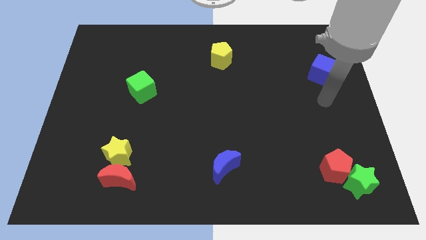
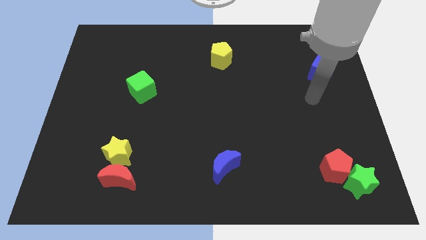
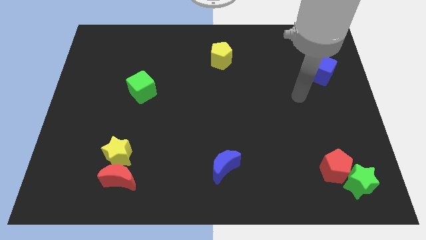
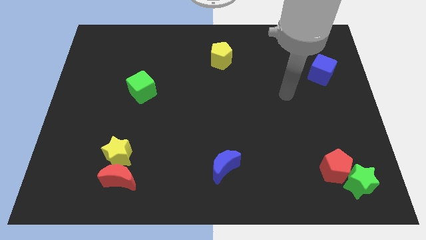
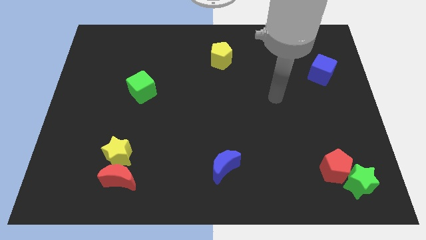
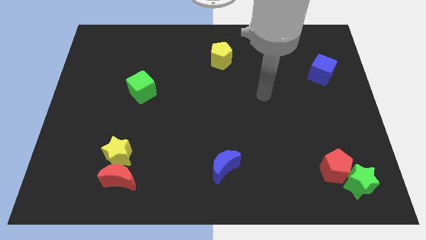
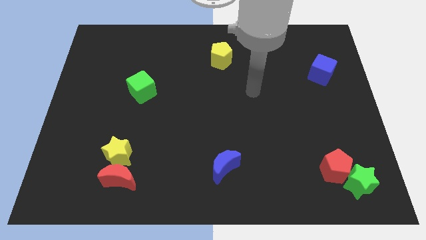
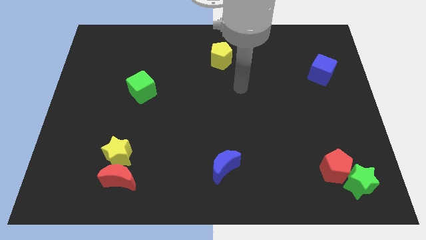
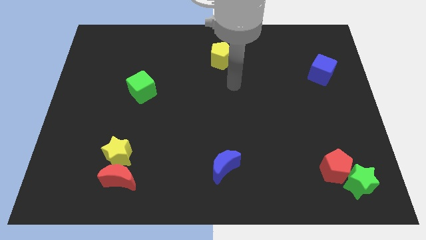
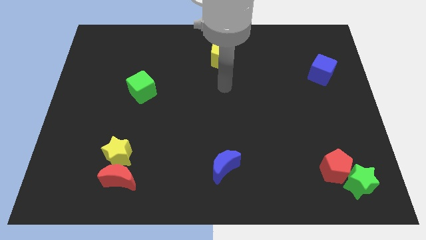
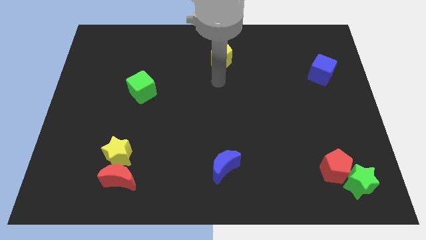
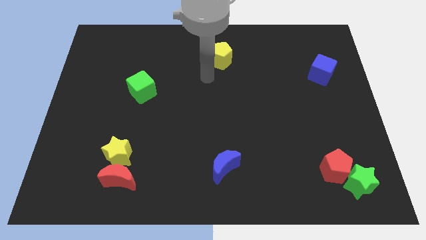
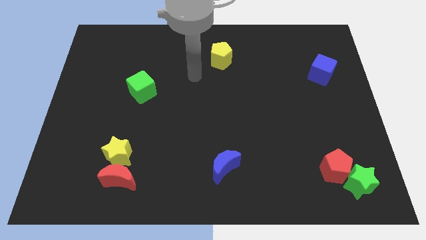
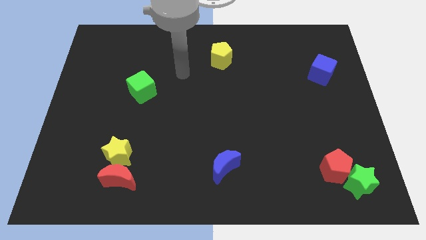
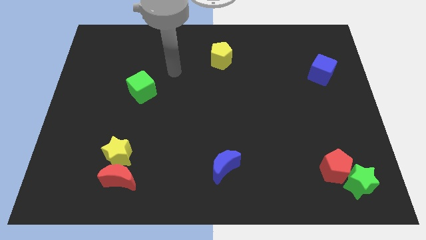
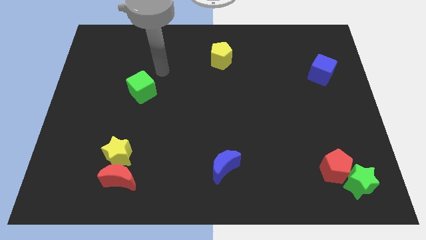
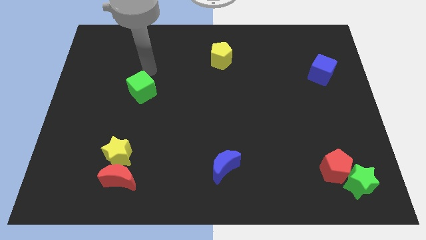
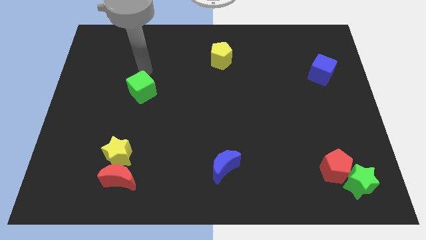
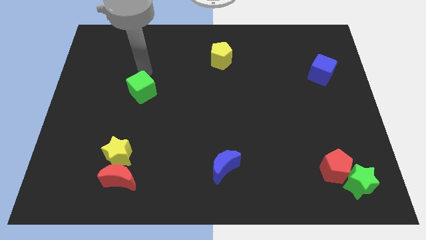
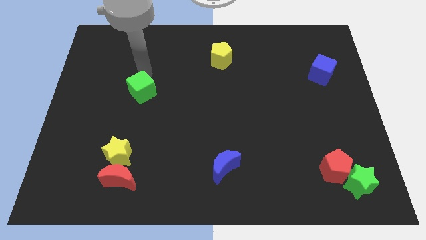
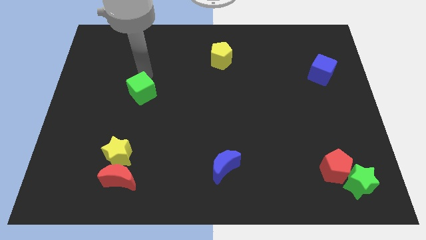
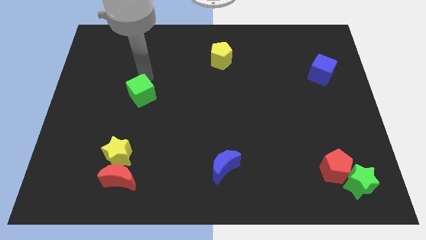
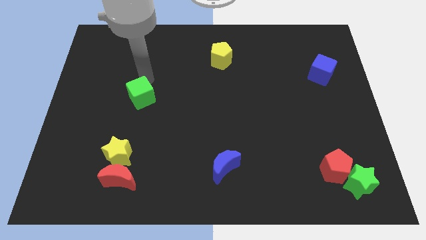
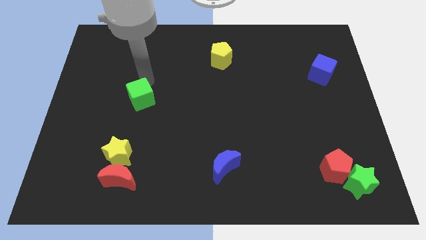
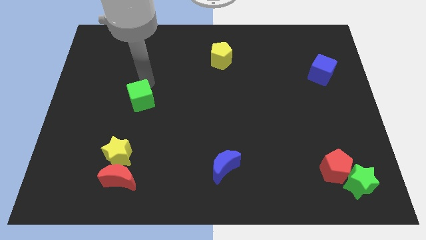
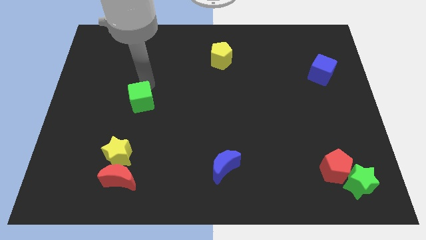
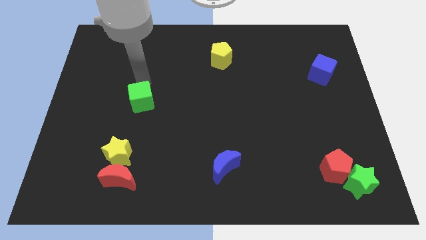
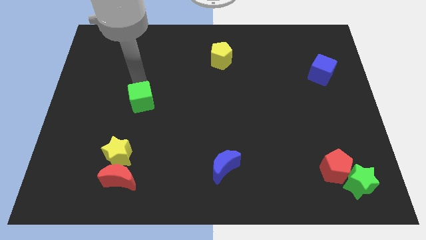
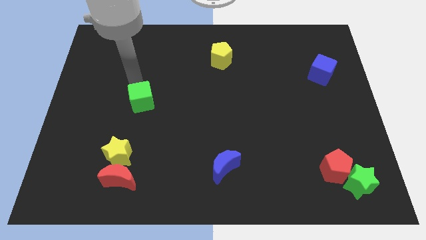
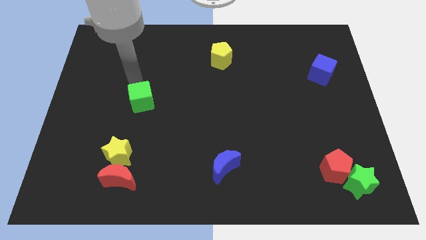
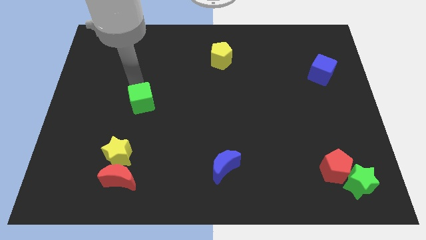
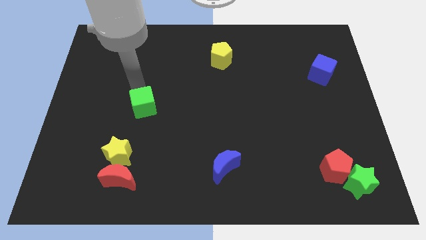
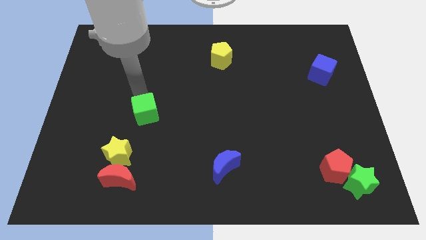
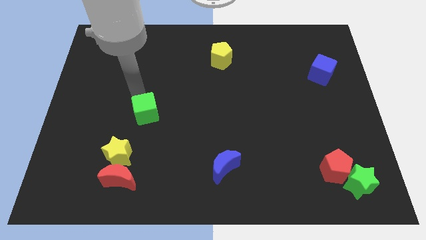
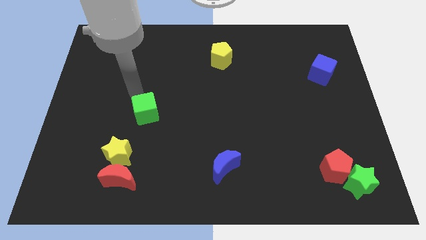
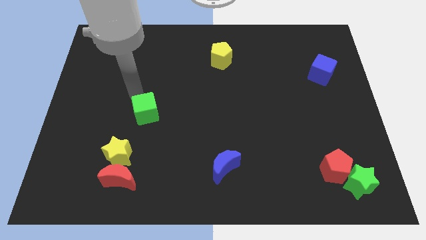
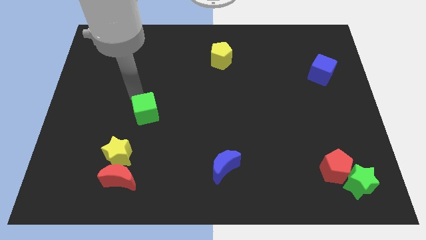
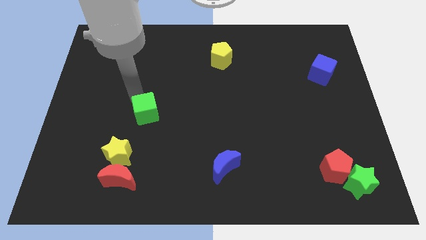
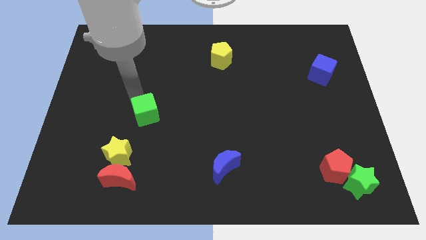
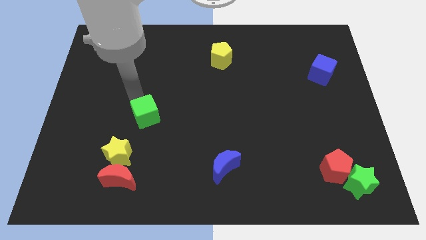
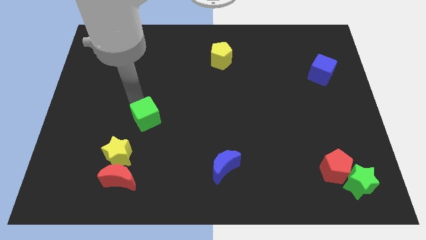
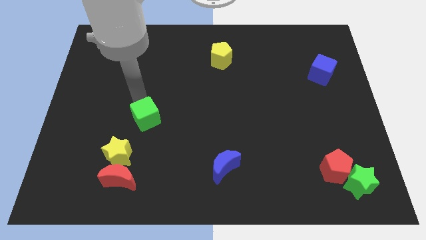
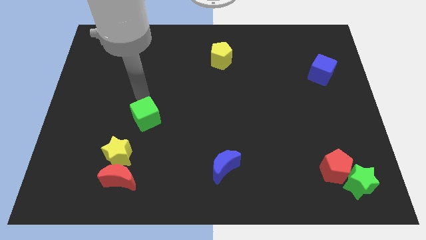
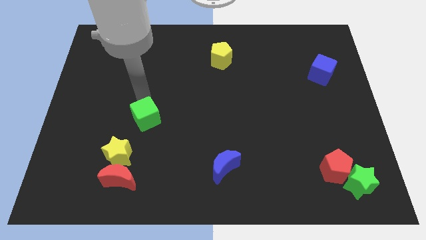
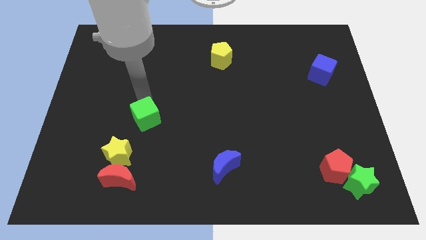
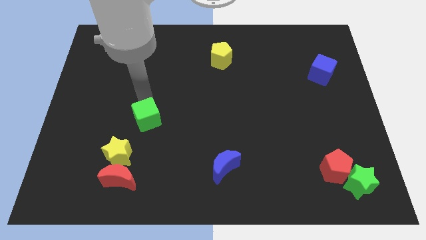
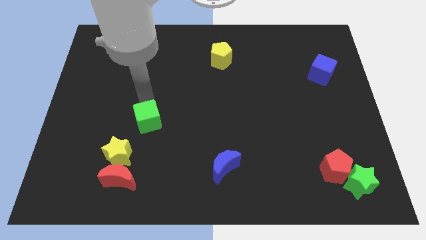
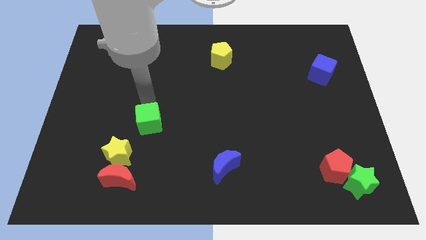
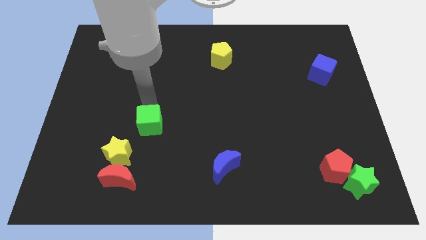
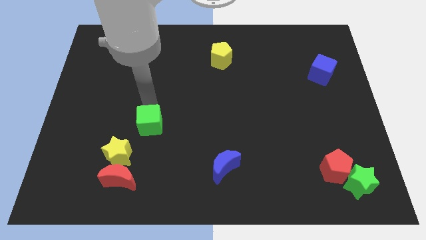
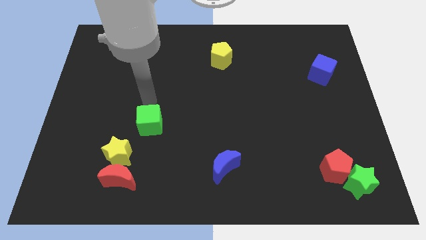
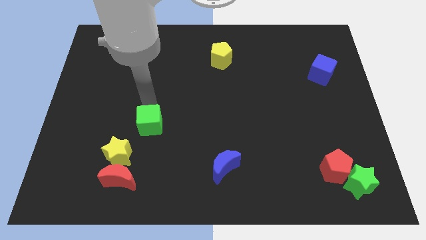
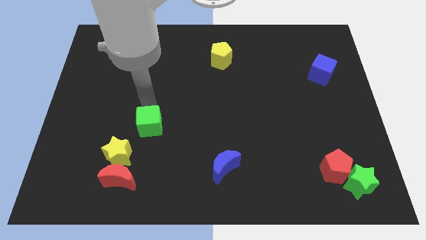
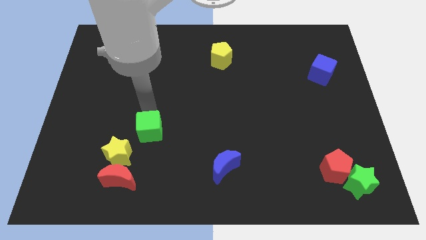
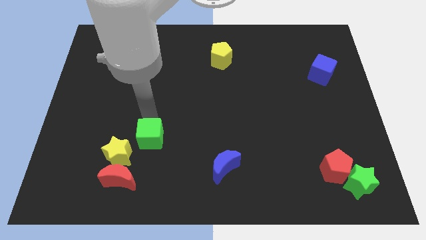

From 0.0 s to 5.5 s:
put the green cube to the top right side of the red moon

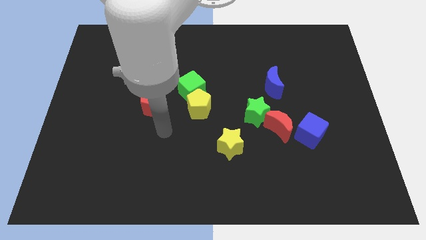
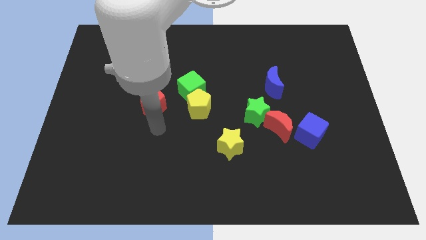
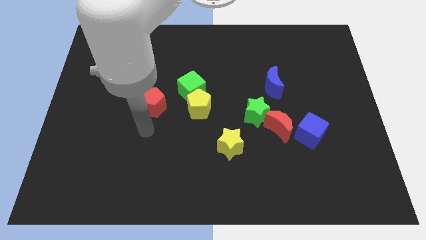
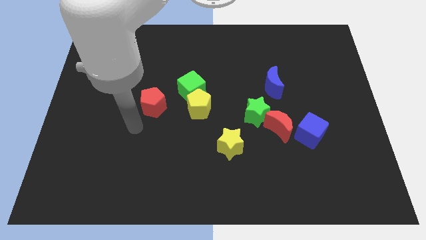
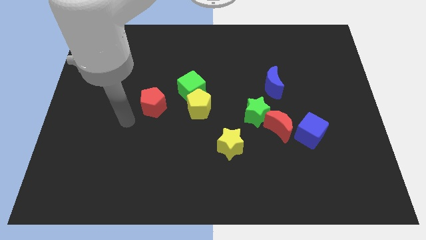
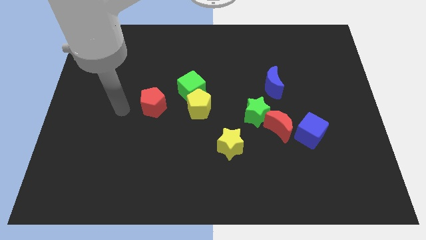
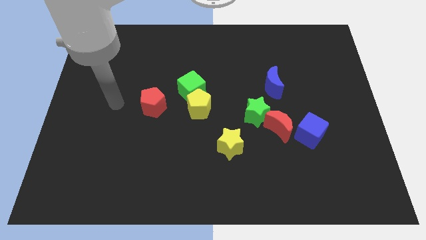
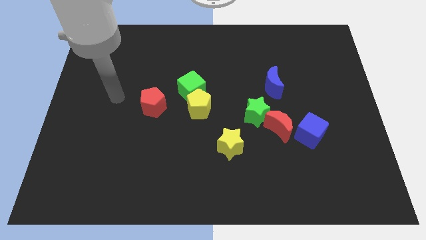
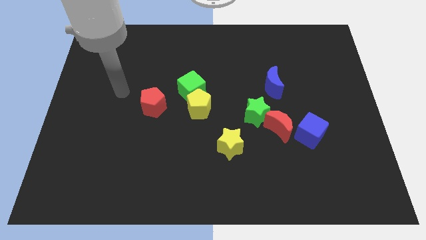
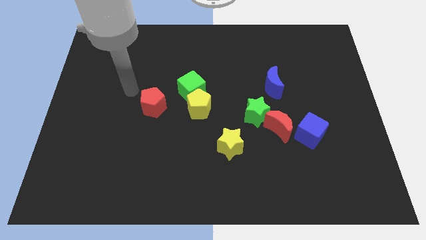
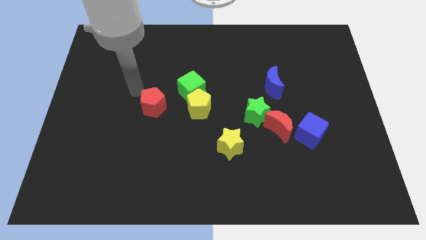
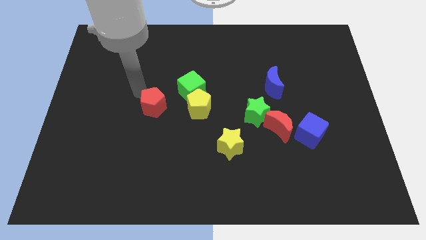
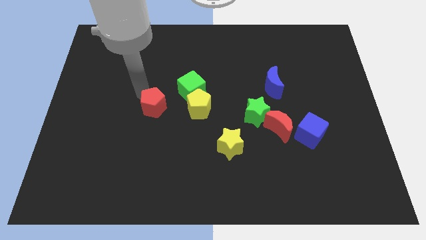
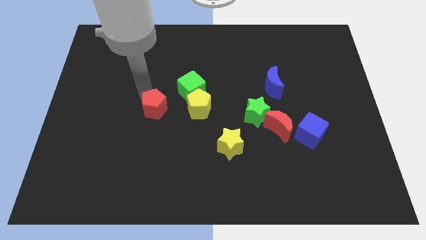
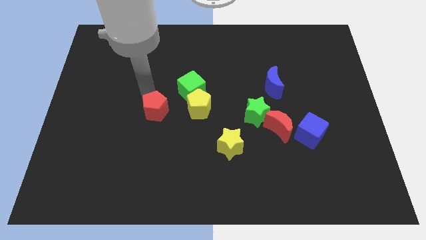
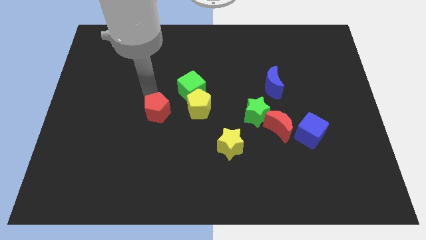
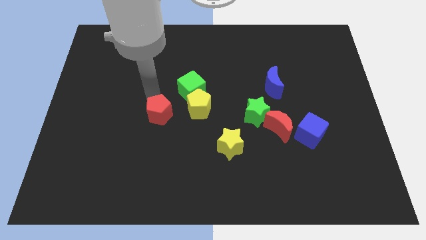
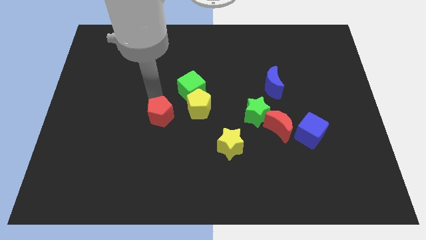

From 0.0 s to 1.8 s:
move the red pentagon diagonally down and to the left of the yellow pentagon
